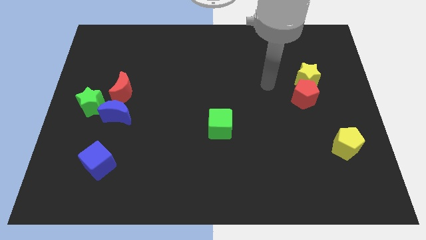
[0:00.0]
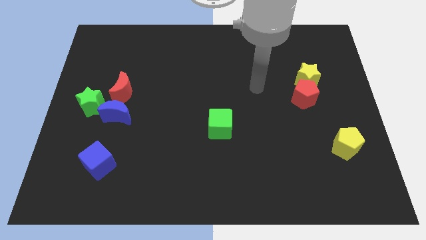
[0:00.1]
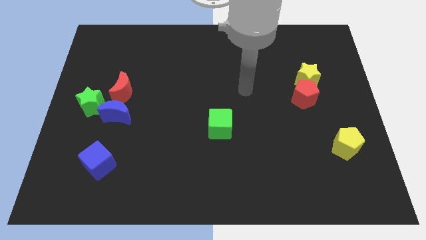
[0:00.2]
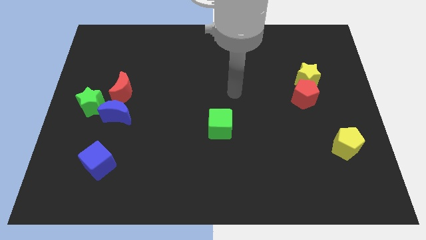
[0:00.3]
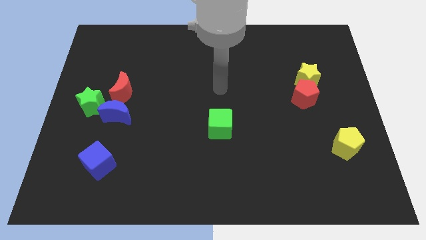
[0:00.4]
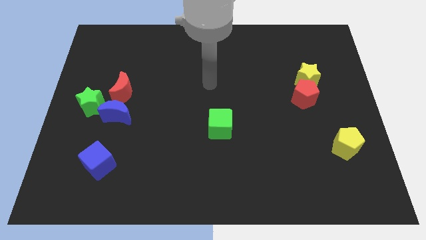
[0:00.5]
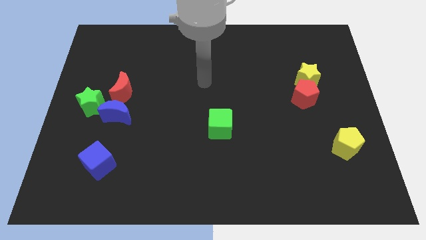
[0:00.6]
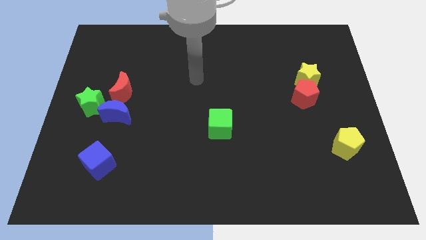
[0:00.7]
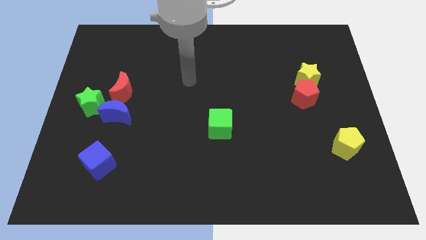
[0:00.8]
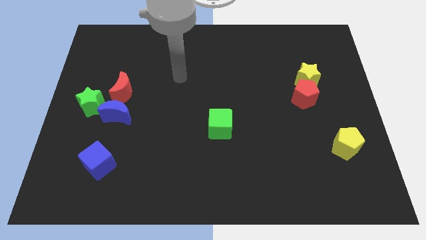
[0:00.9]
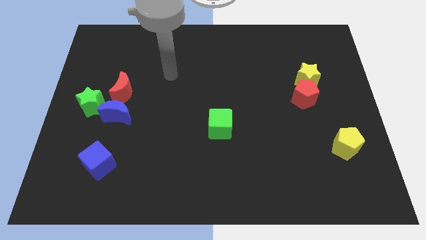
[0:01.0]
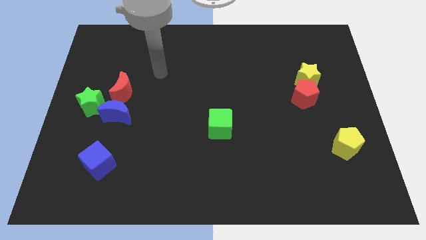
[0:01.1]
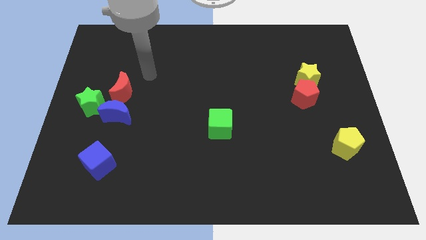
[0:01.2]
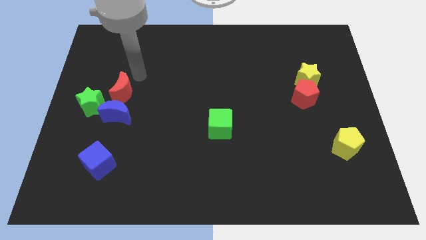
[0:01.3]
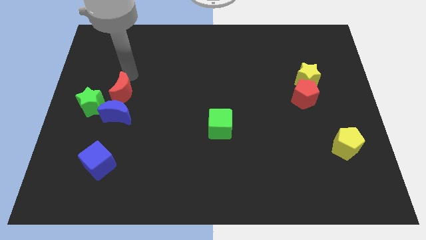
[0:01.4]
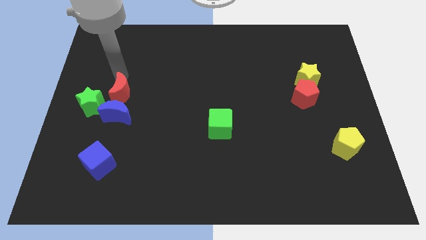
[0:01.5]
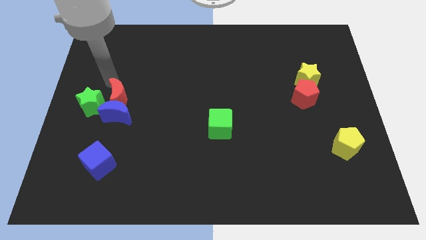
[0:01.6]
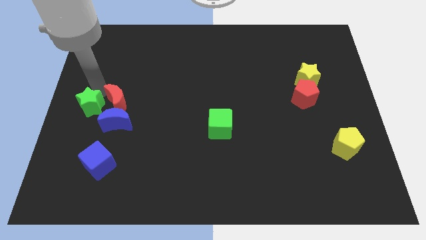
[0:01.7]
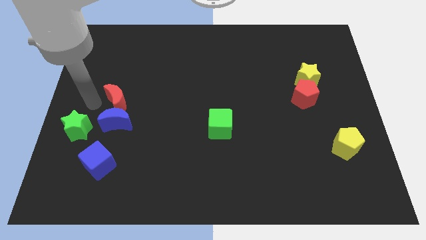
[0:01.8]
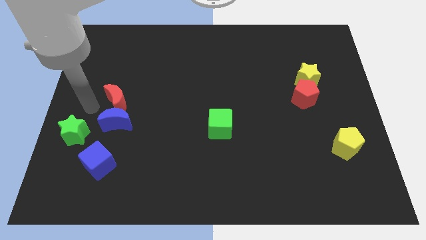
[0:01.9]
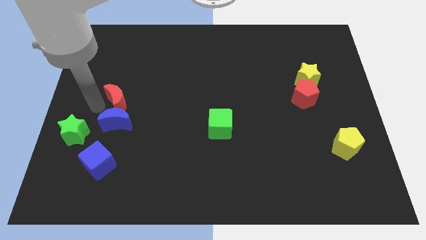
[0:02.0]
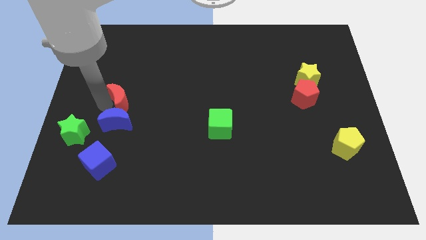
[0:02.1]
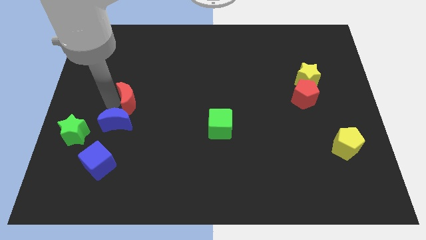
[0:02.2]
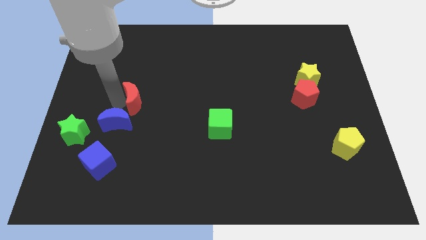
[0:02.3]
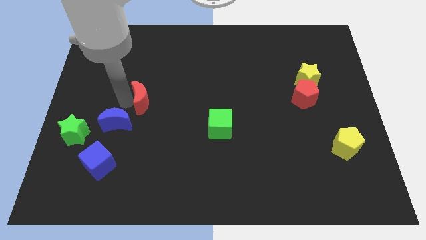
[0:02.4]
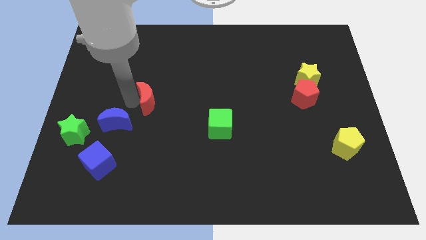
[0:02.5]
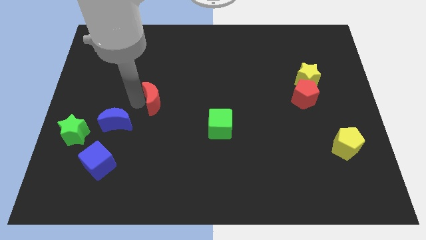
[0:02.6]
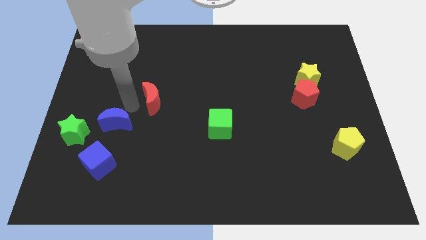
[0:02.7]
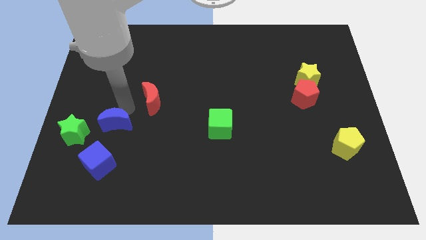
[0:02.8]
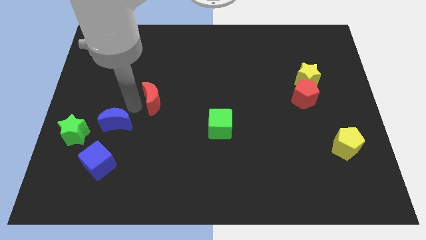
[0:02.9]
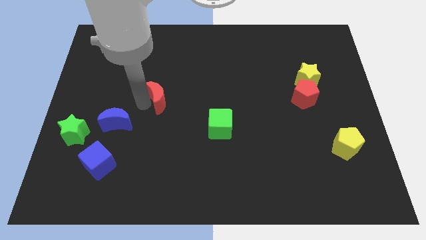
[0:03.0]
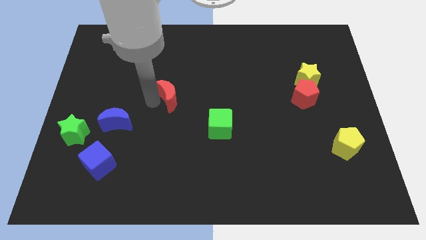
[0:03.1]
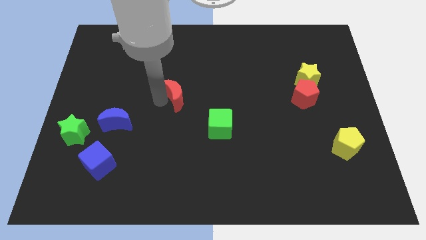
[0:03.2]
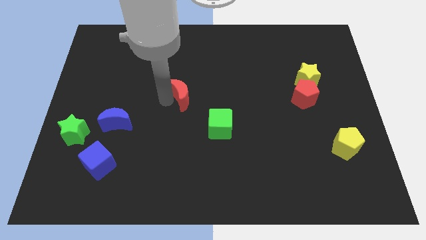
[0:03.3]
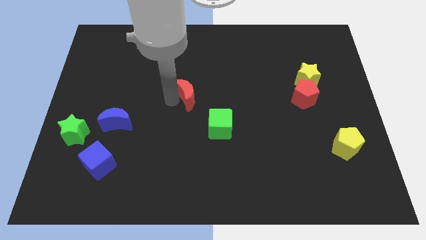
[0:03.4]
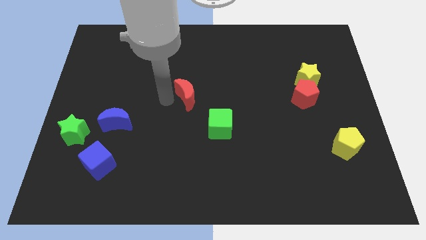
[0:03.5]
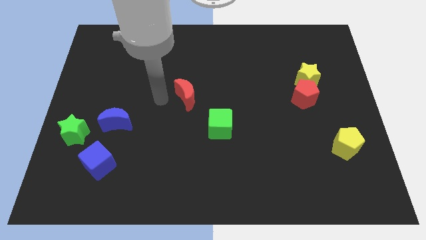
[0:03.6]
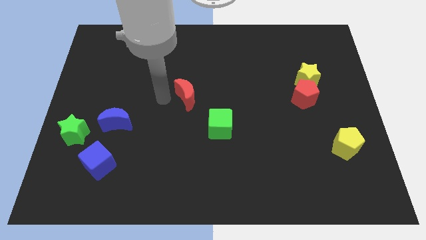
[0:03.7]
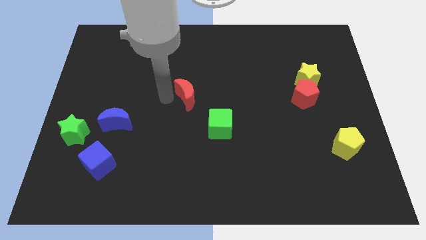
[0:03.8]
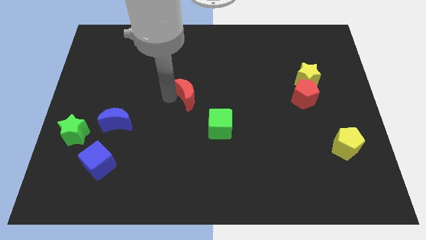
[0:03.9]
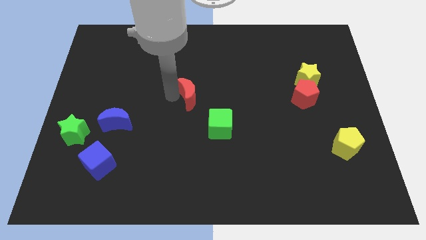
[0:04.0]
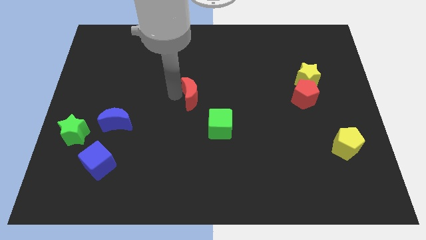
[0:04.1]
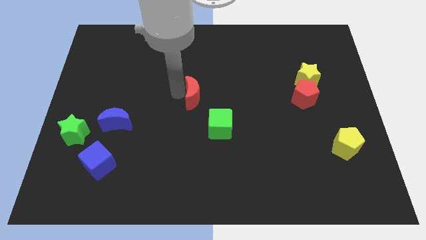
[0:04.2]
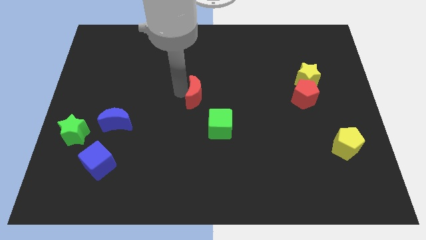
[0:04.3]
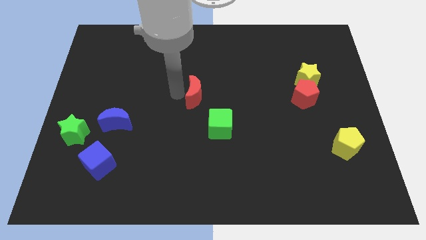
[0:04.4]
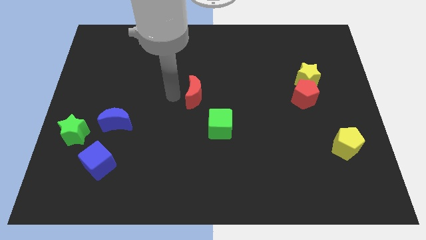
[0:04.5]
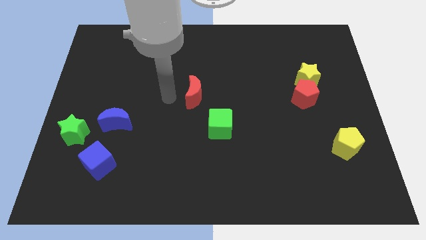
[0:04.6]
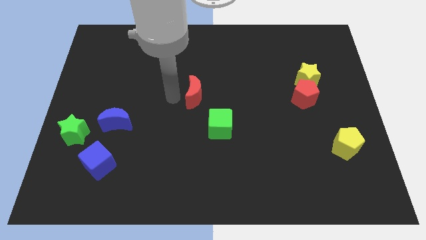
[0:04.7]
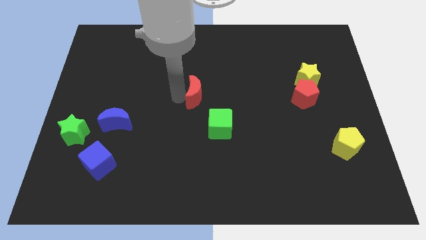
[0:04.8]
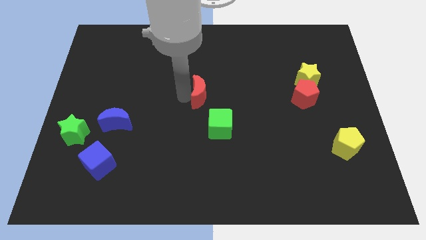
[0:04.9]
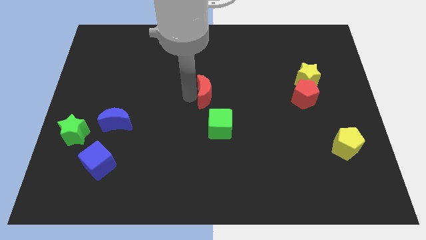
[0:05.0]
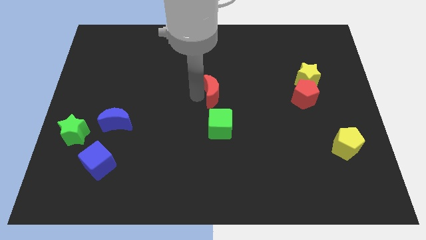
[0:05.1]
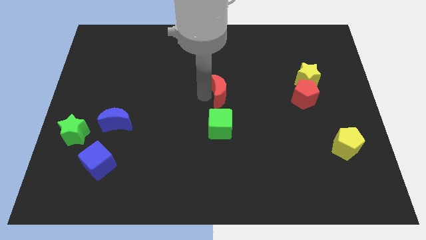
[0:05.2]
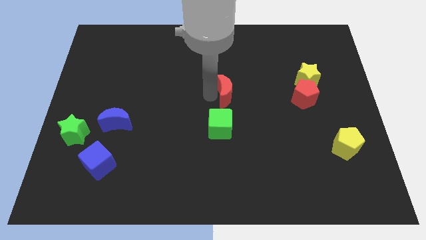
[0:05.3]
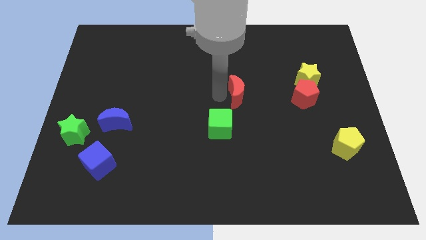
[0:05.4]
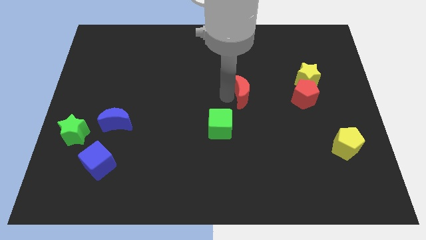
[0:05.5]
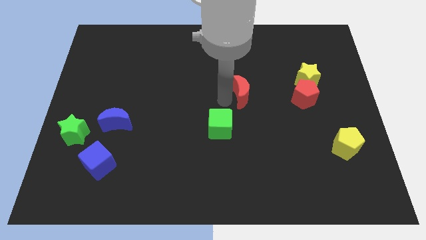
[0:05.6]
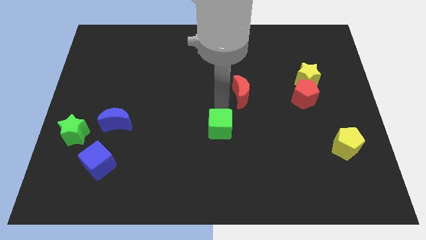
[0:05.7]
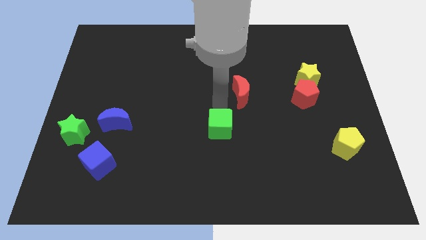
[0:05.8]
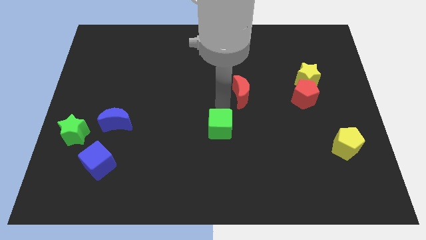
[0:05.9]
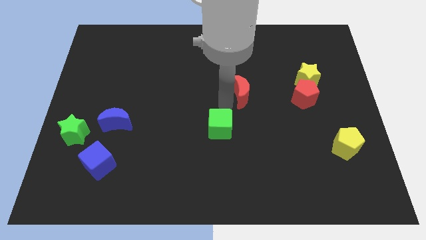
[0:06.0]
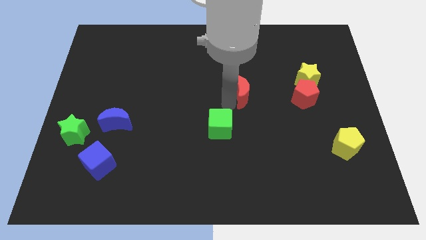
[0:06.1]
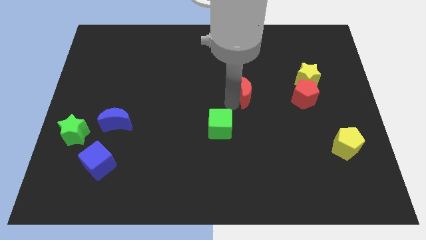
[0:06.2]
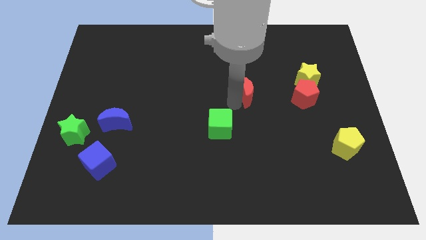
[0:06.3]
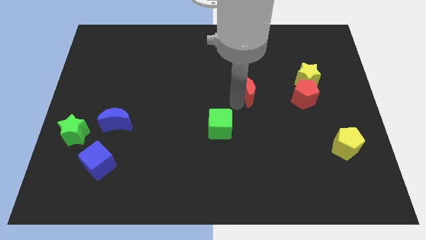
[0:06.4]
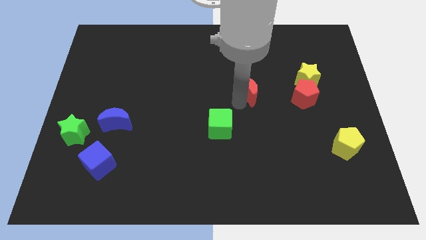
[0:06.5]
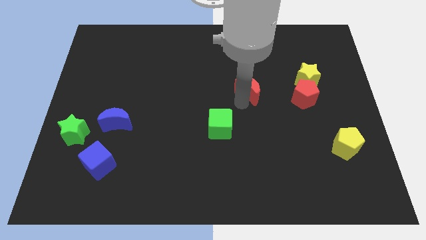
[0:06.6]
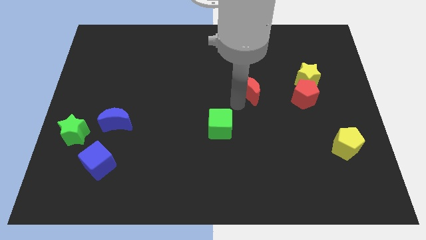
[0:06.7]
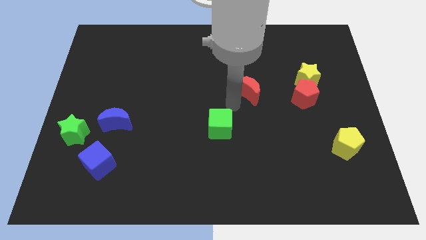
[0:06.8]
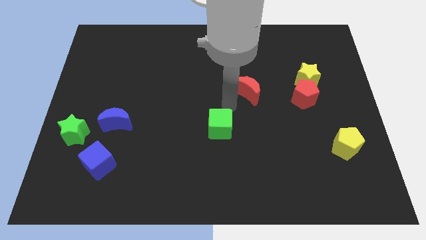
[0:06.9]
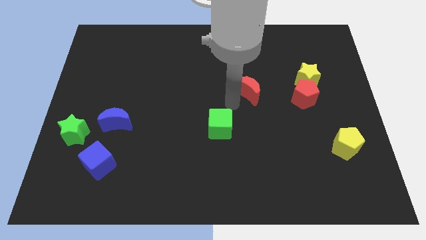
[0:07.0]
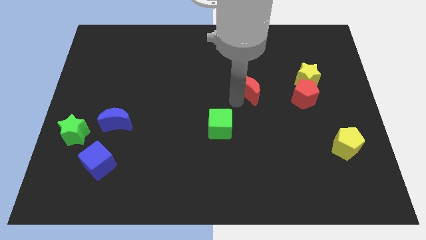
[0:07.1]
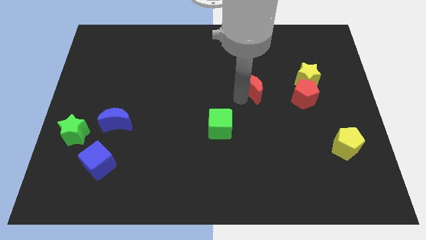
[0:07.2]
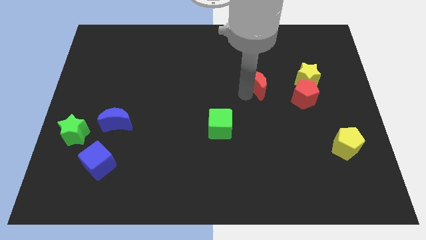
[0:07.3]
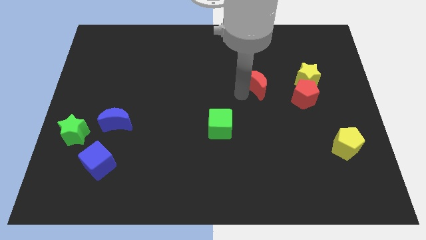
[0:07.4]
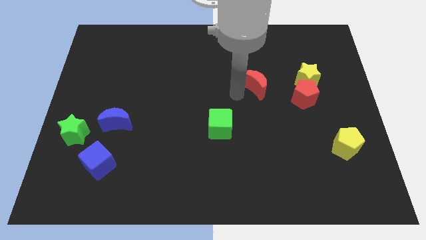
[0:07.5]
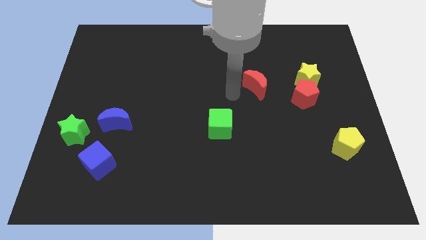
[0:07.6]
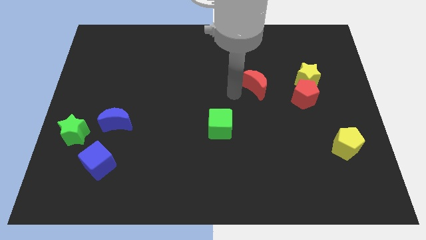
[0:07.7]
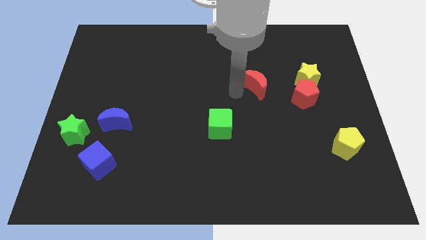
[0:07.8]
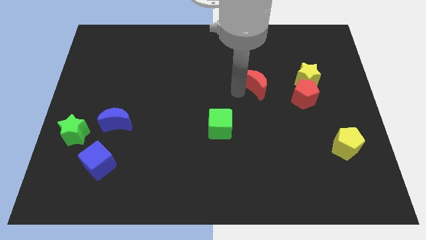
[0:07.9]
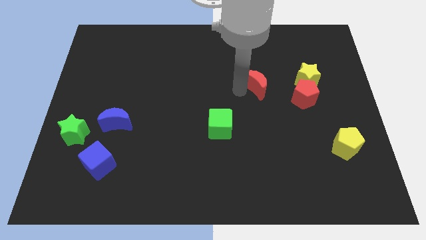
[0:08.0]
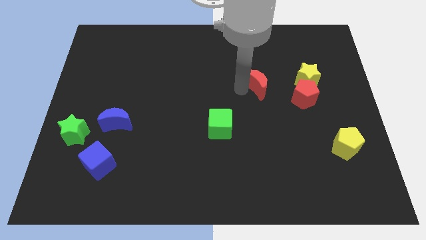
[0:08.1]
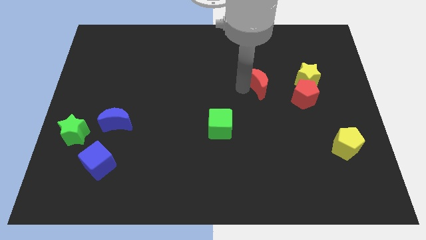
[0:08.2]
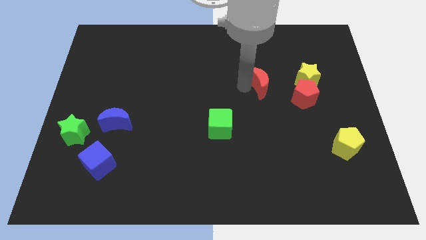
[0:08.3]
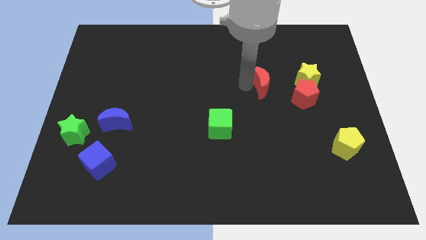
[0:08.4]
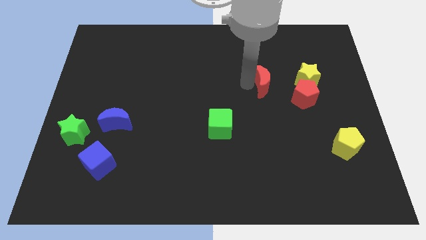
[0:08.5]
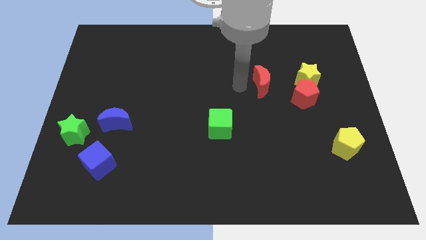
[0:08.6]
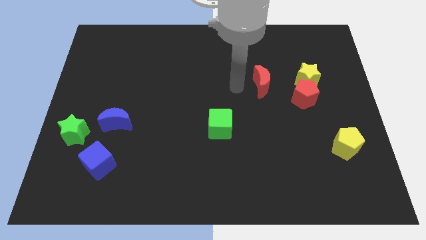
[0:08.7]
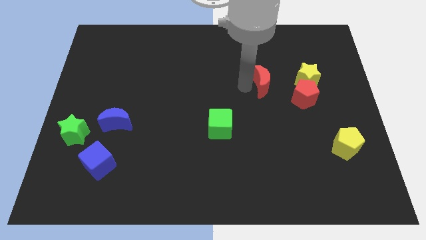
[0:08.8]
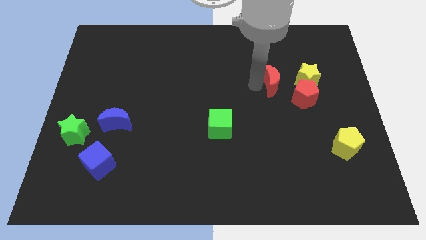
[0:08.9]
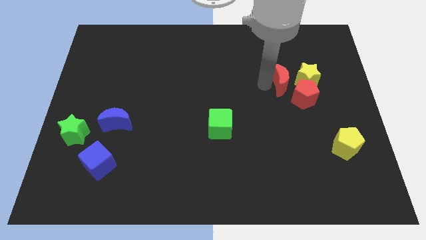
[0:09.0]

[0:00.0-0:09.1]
move the red moon to the yellow star
